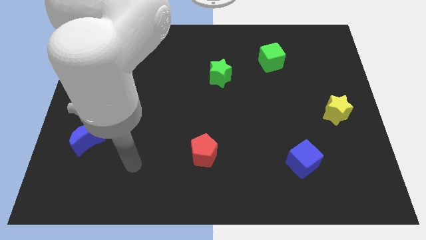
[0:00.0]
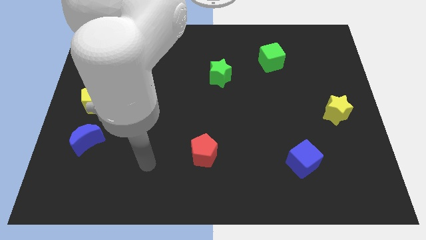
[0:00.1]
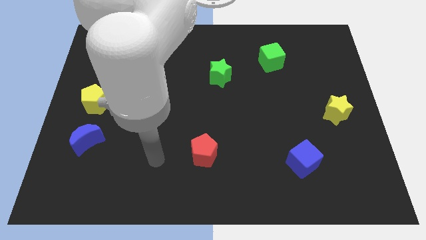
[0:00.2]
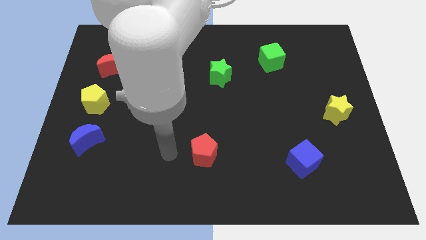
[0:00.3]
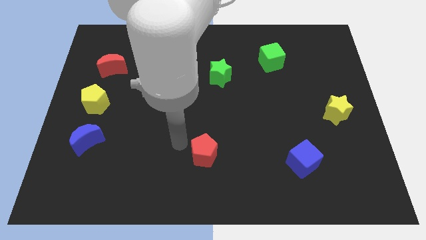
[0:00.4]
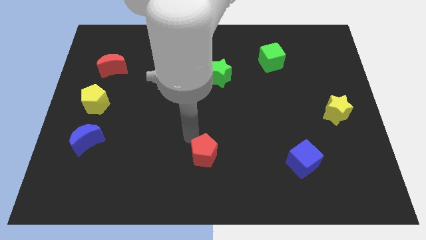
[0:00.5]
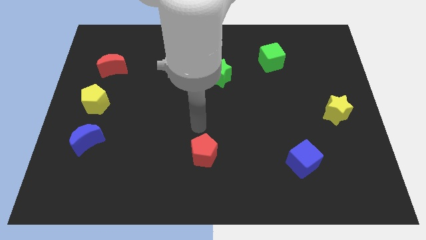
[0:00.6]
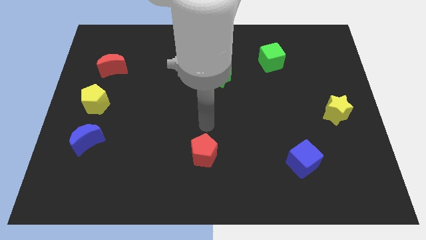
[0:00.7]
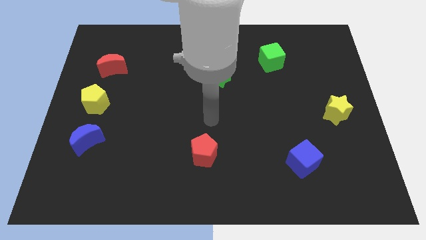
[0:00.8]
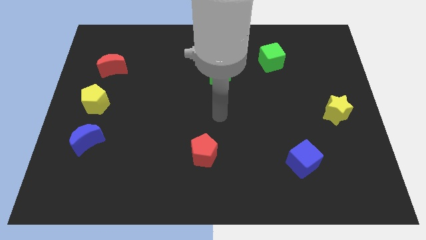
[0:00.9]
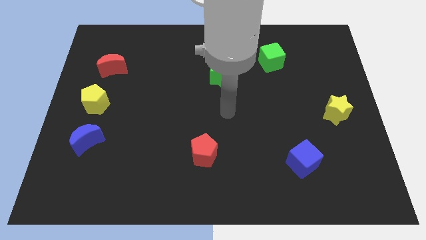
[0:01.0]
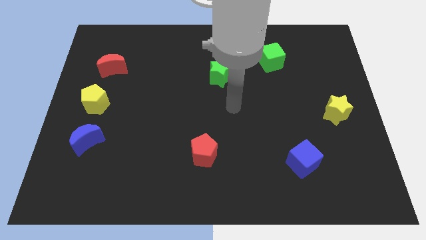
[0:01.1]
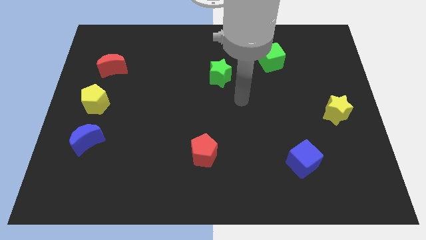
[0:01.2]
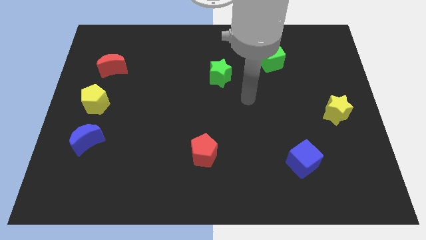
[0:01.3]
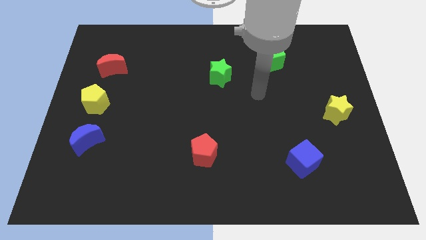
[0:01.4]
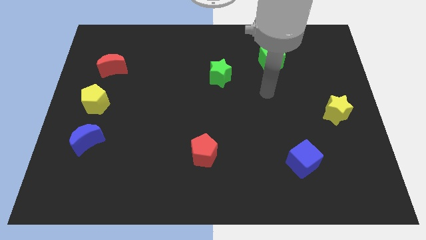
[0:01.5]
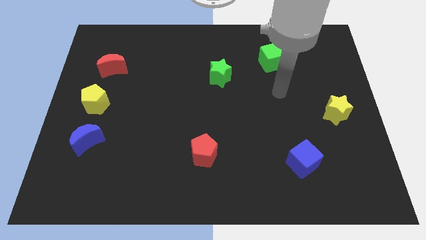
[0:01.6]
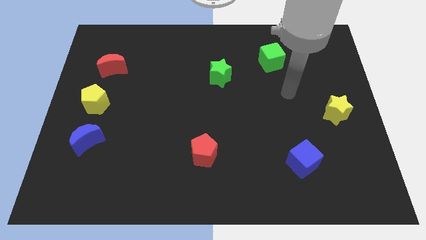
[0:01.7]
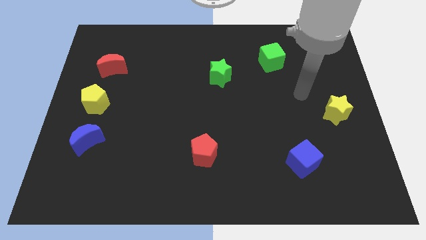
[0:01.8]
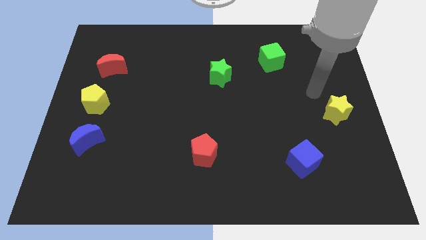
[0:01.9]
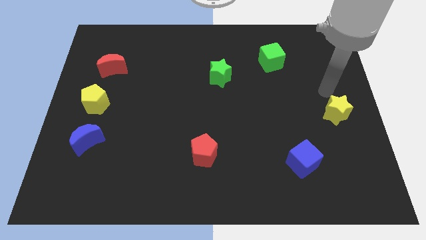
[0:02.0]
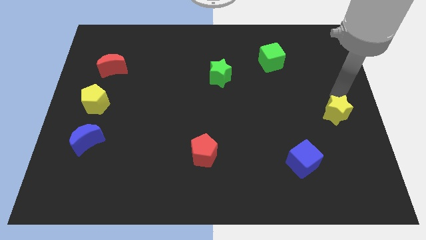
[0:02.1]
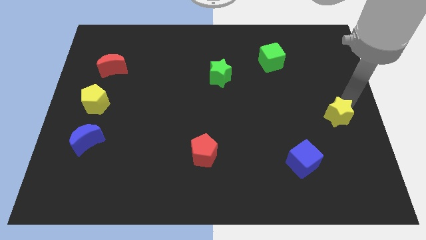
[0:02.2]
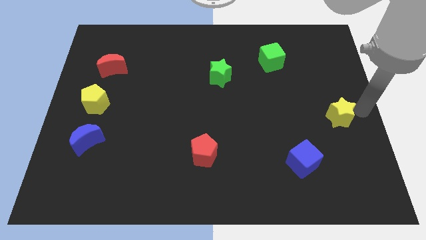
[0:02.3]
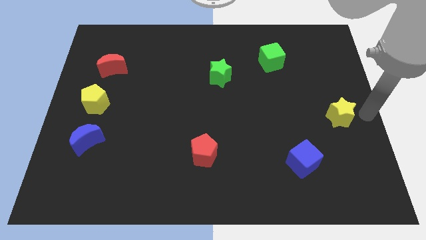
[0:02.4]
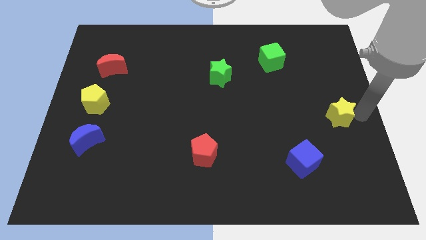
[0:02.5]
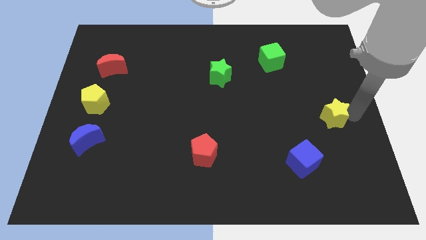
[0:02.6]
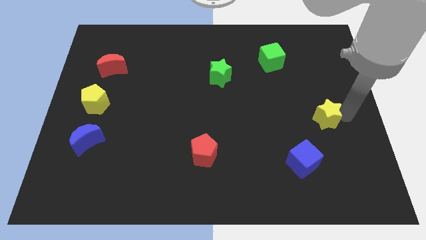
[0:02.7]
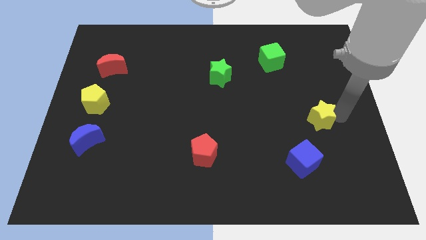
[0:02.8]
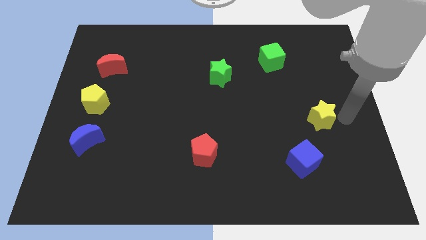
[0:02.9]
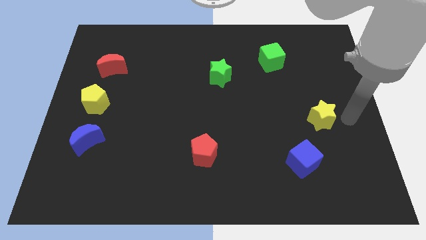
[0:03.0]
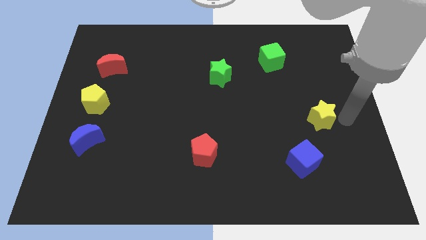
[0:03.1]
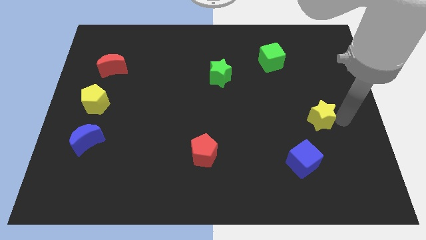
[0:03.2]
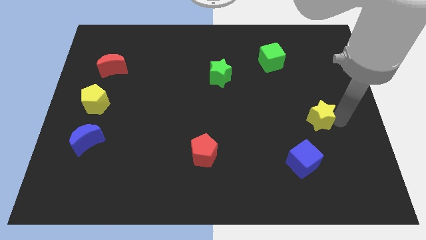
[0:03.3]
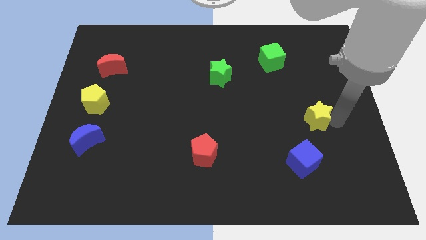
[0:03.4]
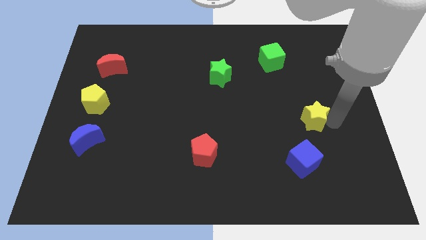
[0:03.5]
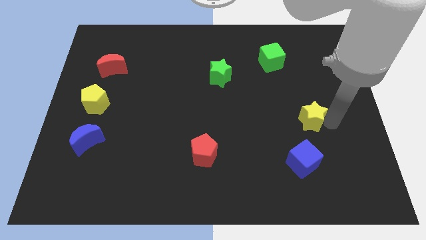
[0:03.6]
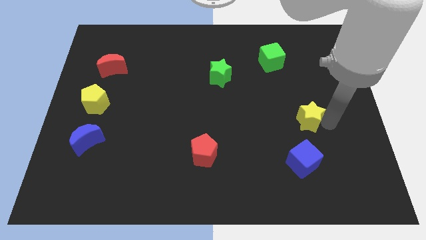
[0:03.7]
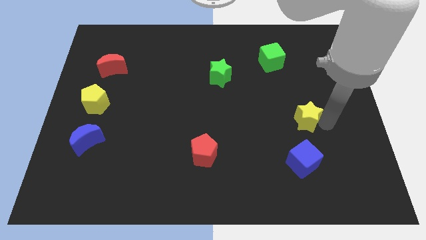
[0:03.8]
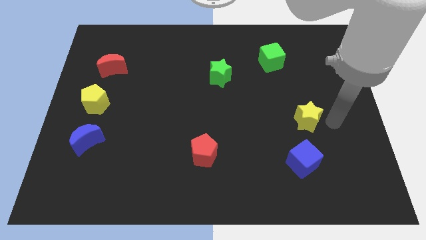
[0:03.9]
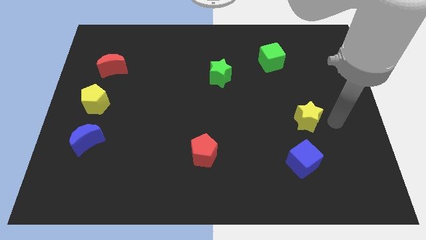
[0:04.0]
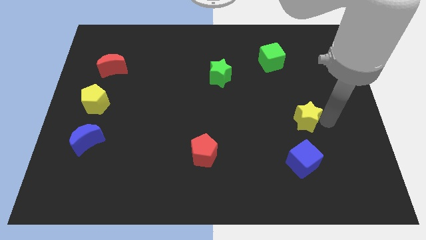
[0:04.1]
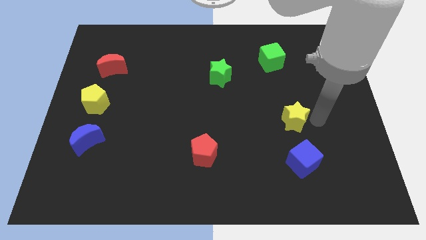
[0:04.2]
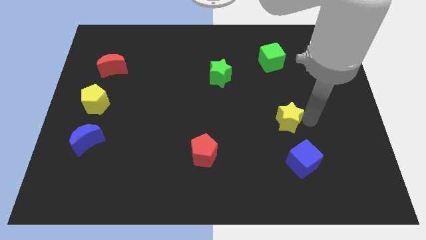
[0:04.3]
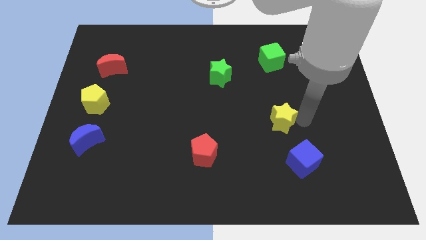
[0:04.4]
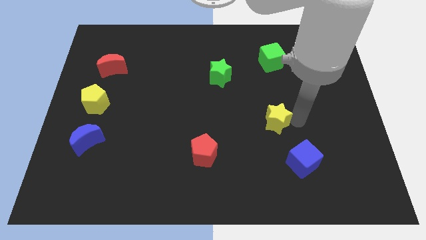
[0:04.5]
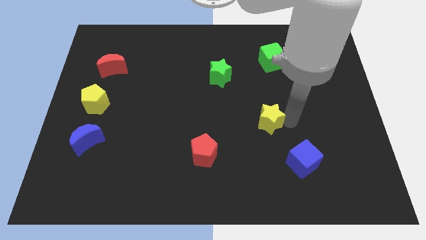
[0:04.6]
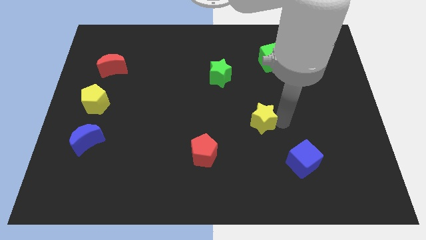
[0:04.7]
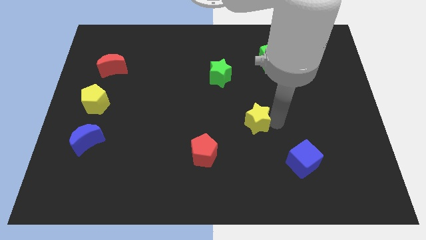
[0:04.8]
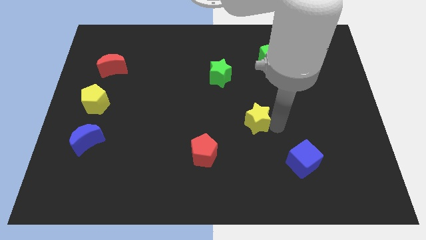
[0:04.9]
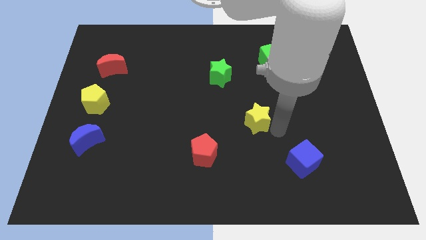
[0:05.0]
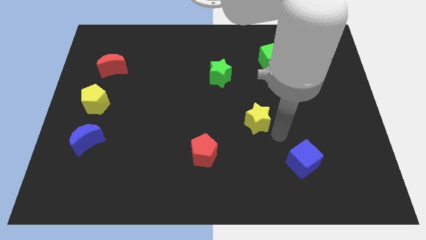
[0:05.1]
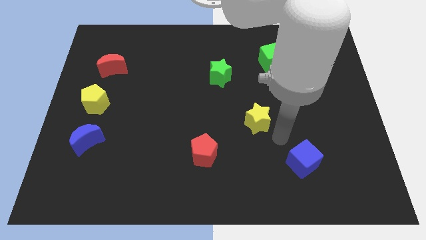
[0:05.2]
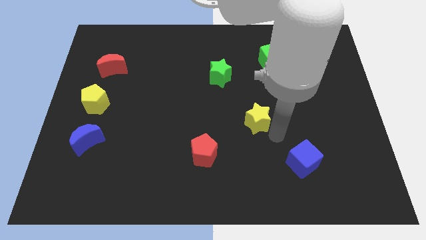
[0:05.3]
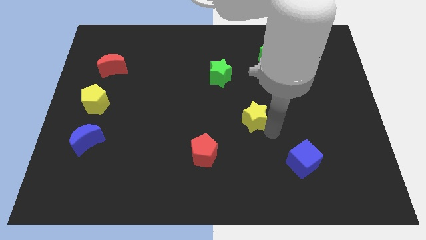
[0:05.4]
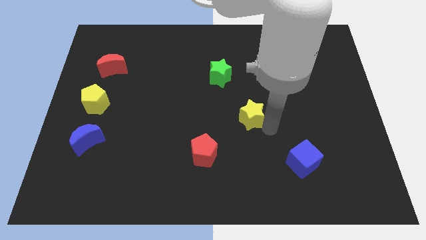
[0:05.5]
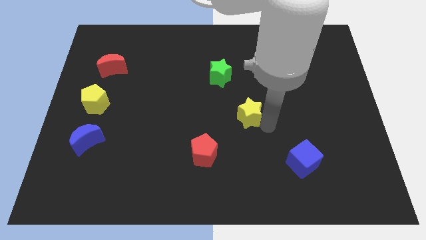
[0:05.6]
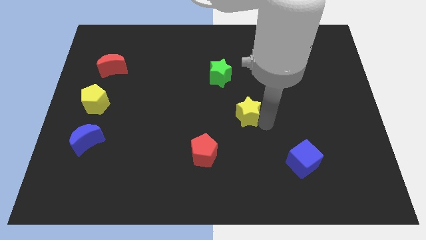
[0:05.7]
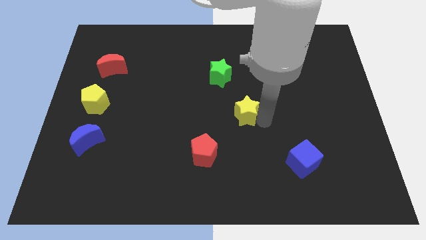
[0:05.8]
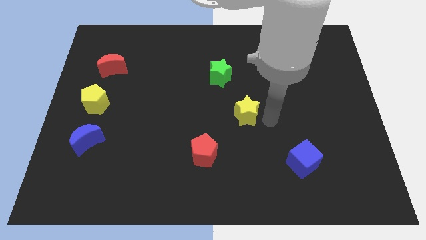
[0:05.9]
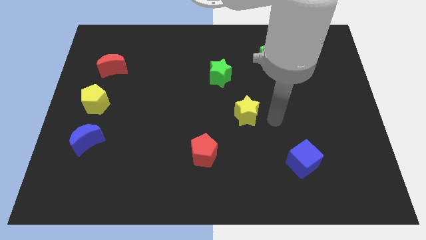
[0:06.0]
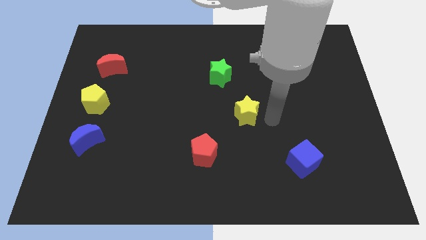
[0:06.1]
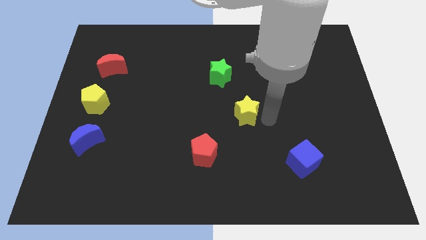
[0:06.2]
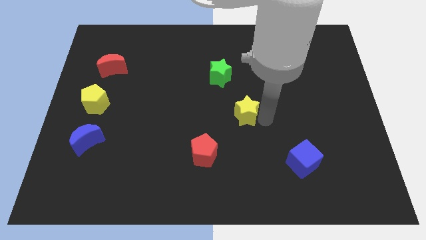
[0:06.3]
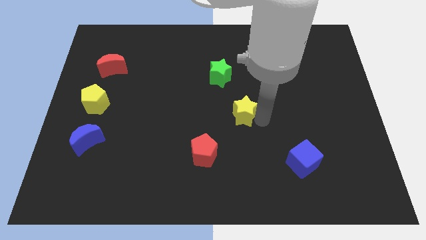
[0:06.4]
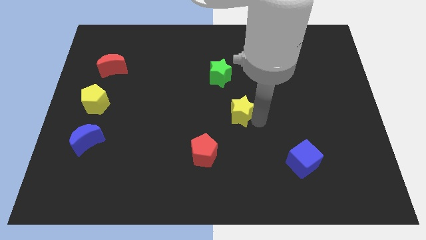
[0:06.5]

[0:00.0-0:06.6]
push the yellow star below the green star
